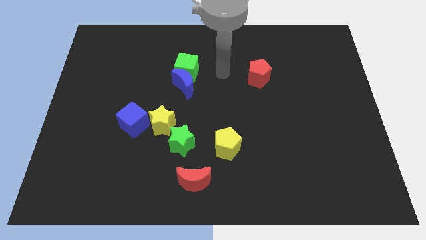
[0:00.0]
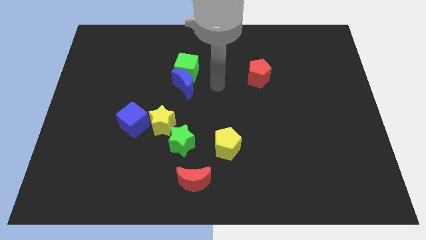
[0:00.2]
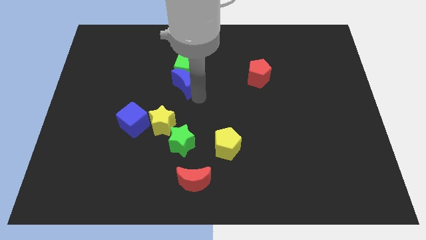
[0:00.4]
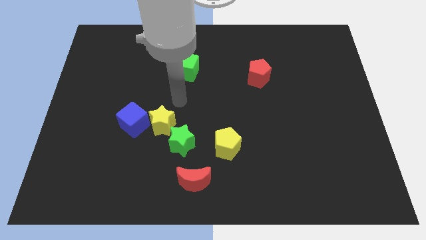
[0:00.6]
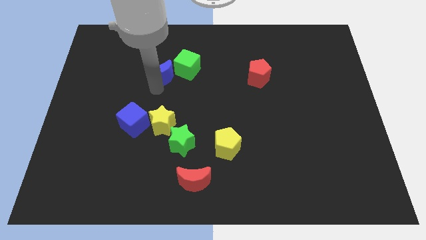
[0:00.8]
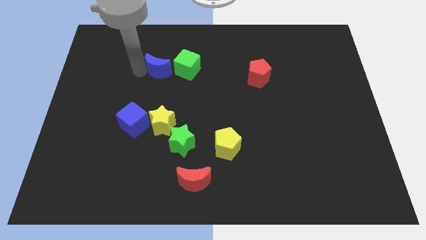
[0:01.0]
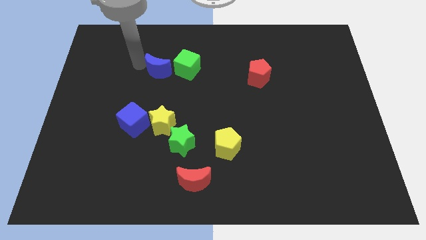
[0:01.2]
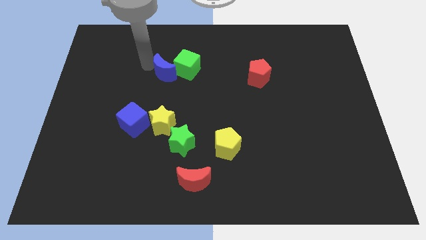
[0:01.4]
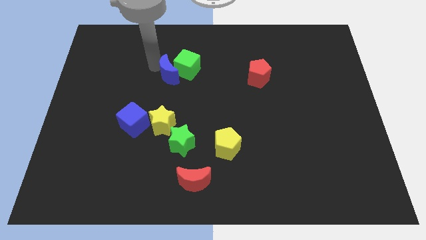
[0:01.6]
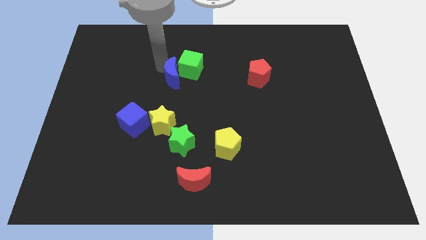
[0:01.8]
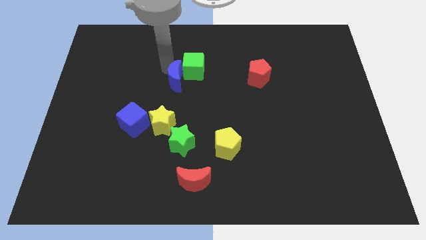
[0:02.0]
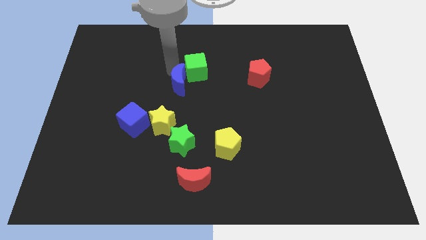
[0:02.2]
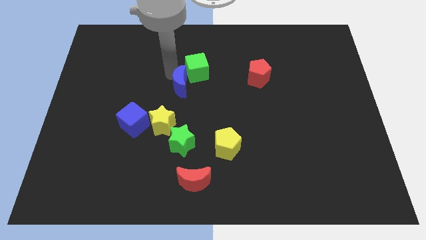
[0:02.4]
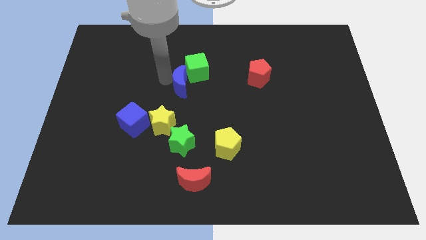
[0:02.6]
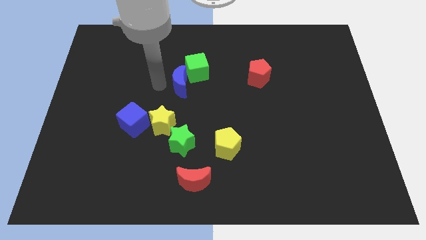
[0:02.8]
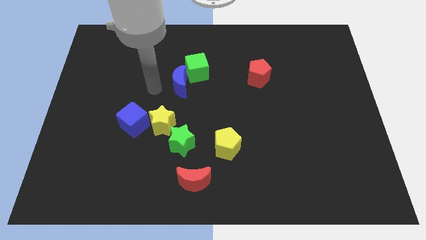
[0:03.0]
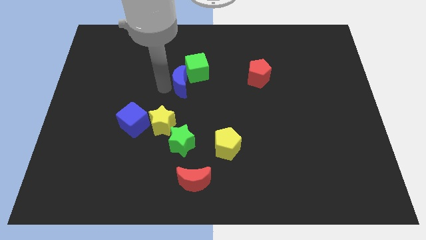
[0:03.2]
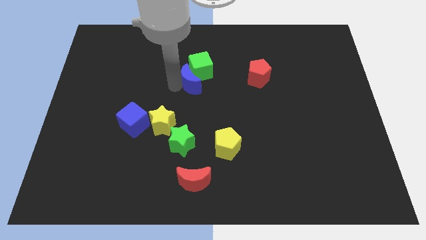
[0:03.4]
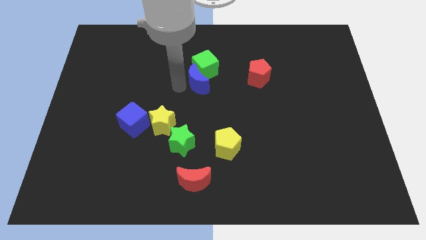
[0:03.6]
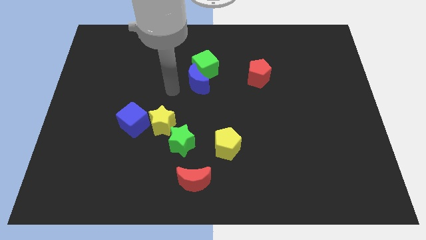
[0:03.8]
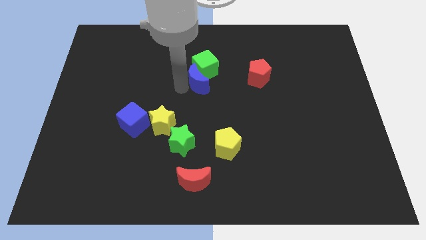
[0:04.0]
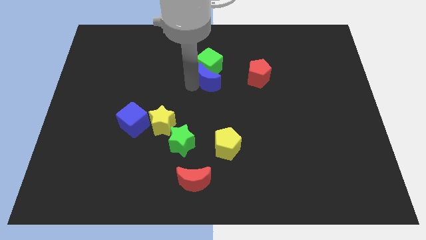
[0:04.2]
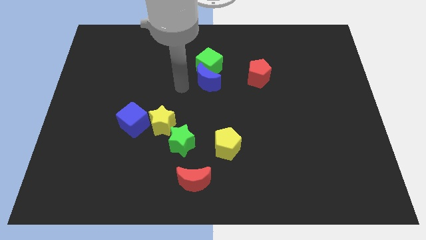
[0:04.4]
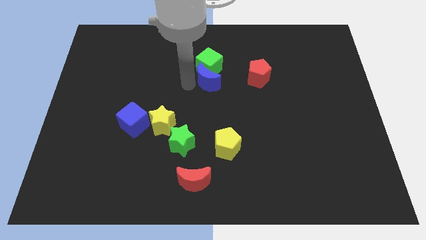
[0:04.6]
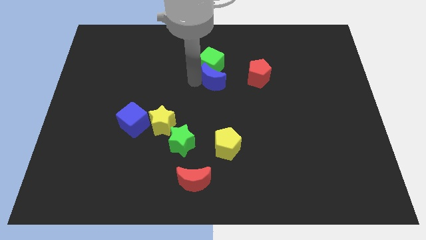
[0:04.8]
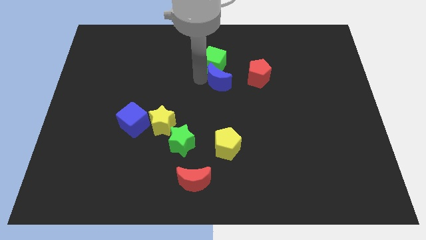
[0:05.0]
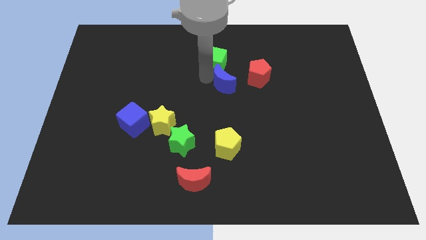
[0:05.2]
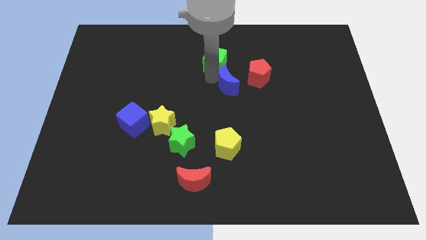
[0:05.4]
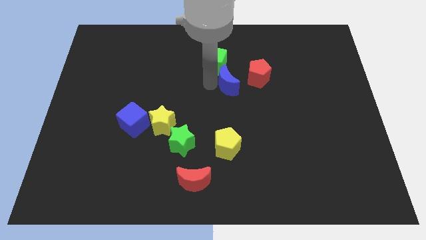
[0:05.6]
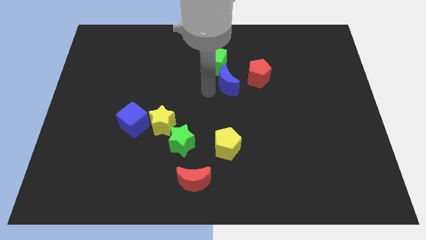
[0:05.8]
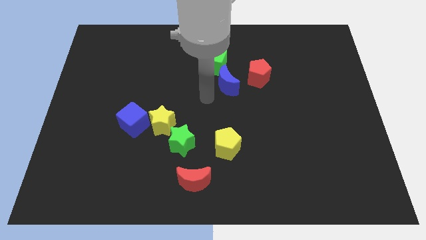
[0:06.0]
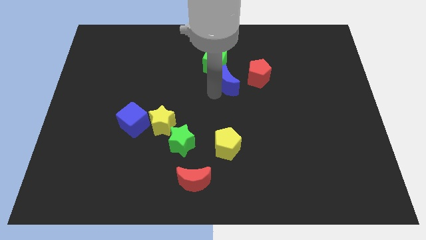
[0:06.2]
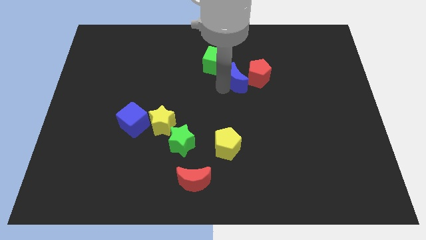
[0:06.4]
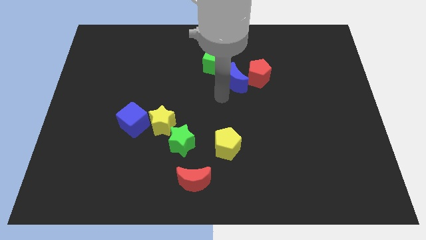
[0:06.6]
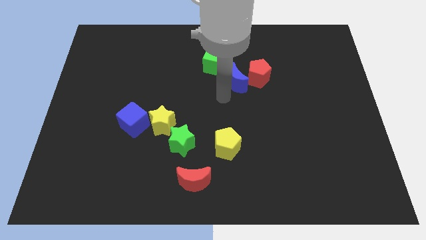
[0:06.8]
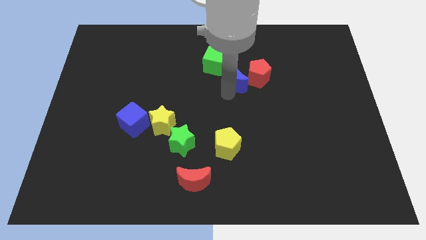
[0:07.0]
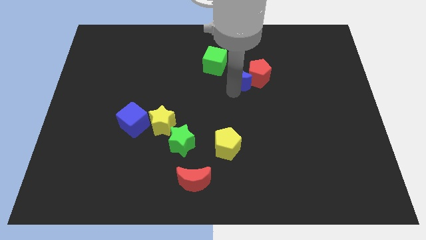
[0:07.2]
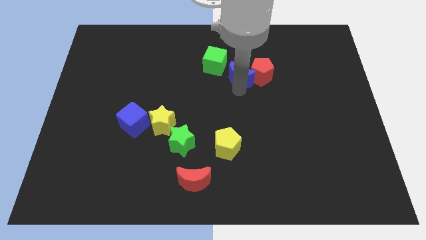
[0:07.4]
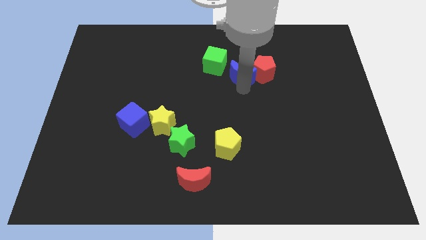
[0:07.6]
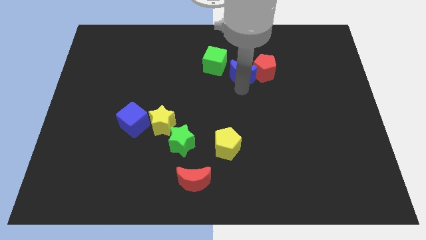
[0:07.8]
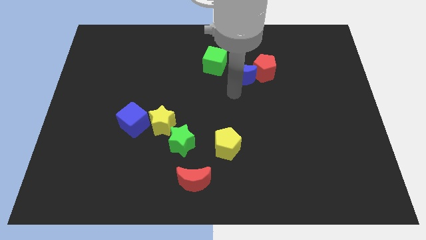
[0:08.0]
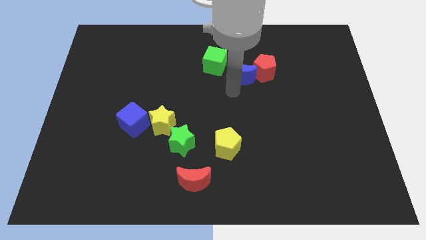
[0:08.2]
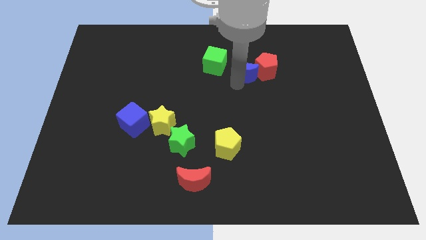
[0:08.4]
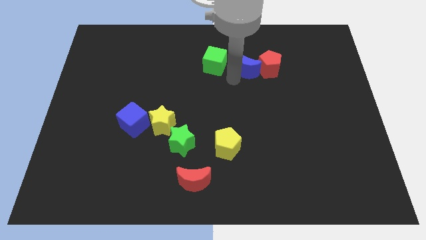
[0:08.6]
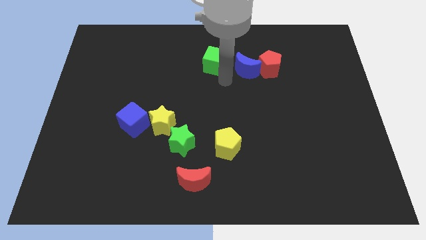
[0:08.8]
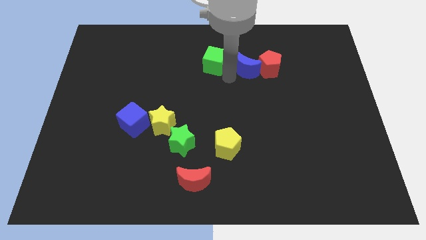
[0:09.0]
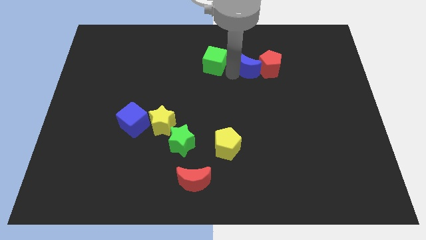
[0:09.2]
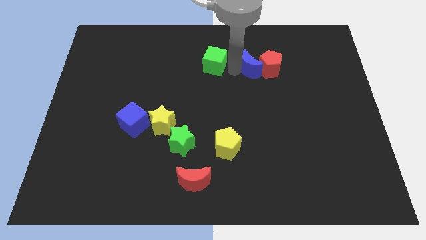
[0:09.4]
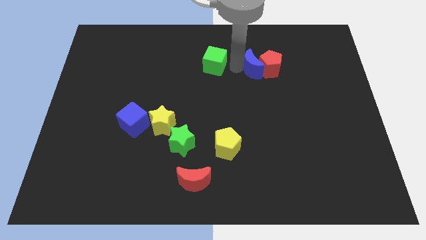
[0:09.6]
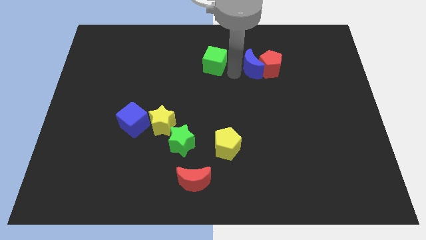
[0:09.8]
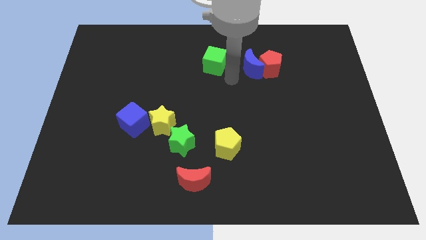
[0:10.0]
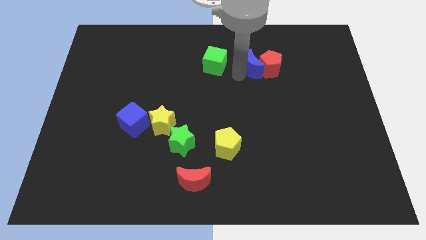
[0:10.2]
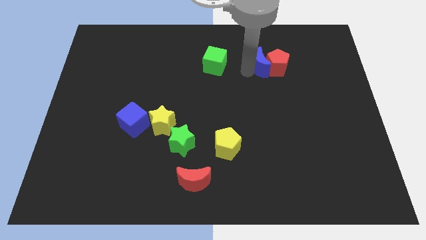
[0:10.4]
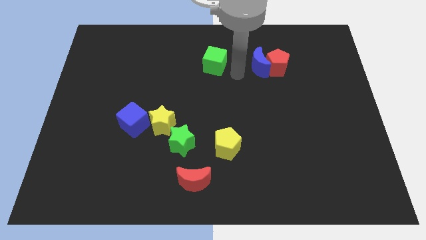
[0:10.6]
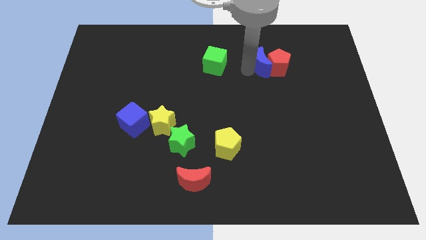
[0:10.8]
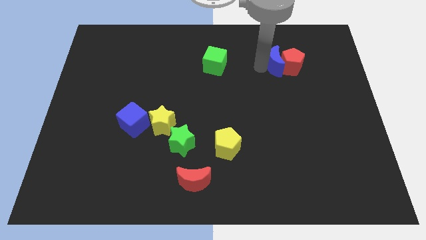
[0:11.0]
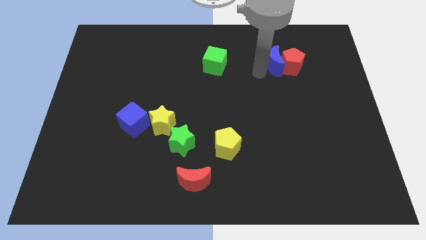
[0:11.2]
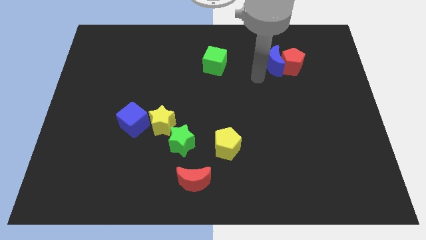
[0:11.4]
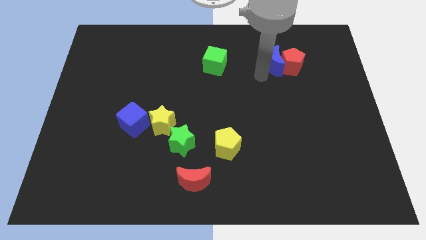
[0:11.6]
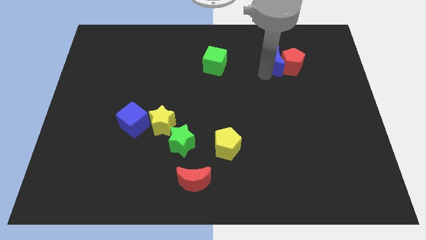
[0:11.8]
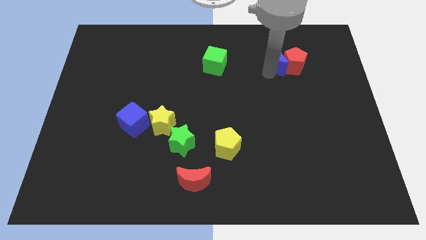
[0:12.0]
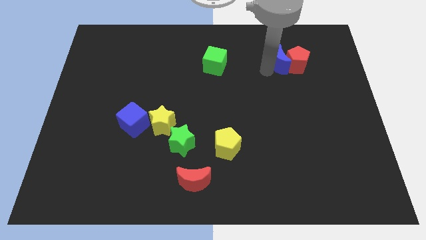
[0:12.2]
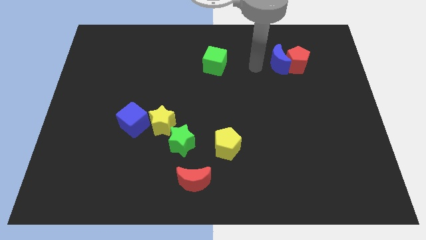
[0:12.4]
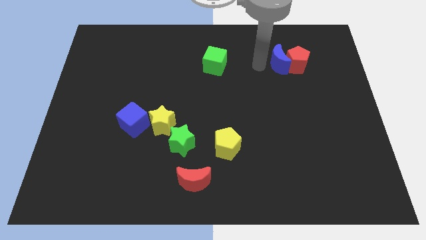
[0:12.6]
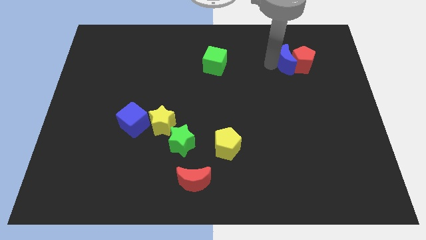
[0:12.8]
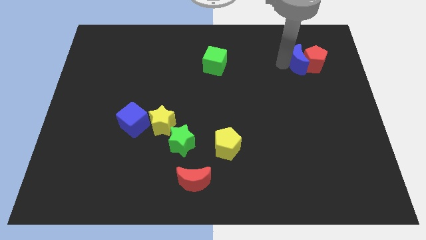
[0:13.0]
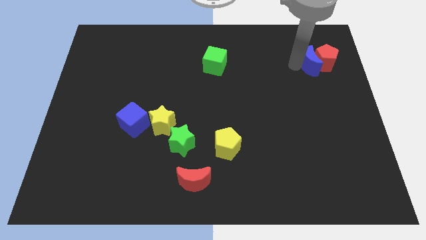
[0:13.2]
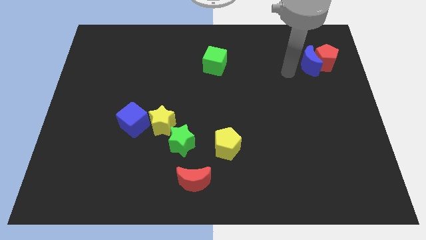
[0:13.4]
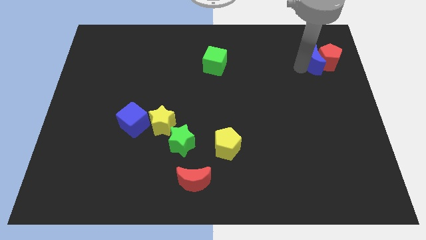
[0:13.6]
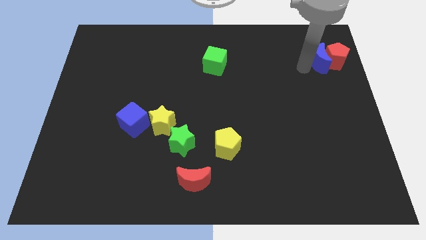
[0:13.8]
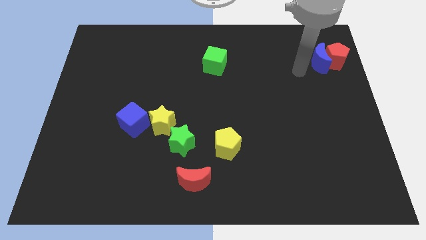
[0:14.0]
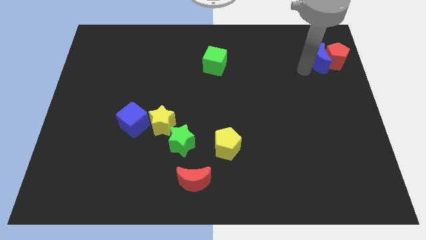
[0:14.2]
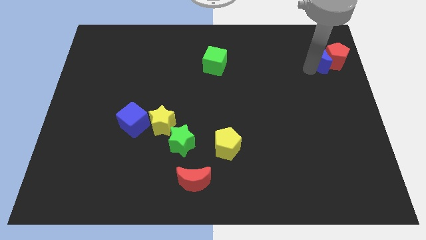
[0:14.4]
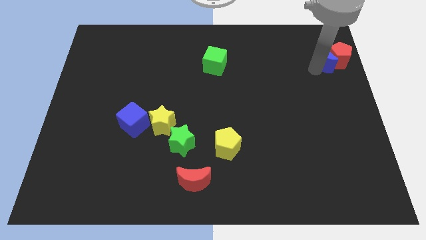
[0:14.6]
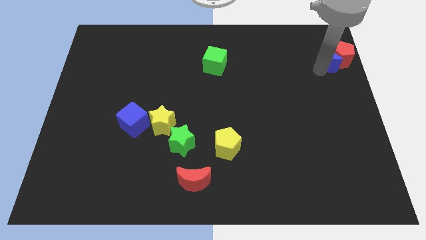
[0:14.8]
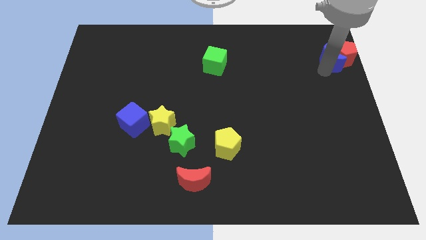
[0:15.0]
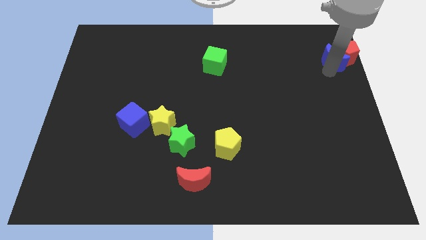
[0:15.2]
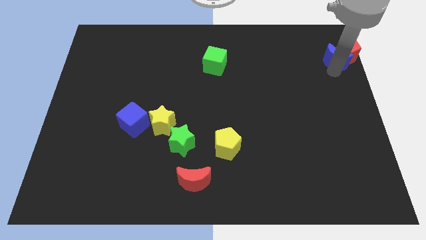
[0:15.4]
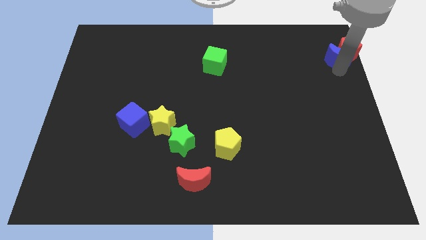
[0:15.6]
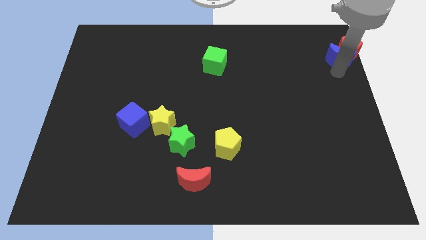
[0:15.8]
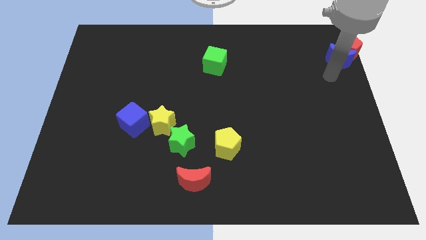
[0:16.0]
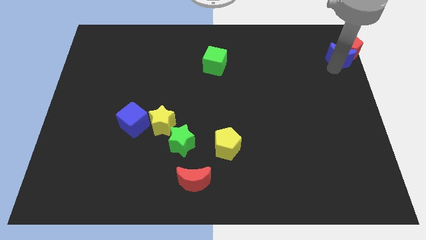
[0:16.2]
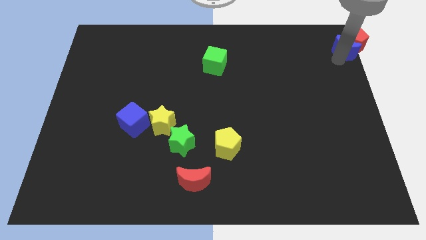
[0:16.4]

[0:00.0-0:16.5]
move the blue moon to the top right of the board
